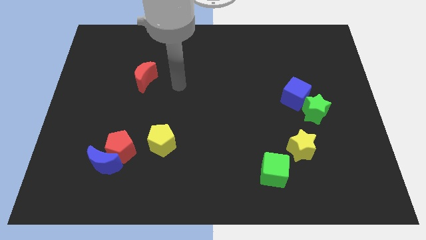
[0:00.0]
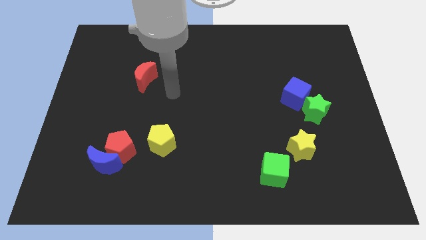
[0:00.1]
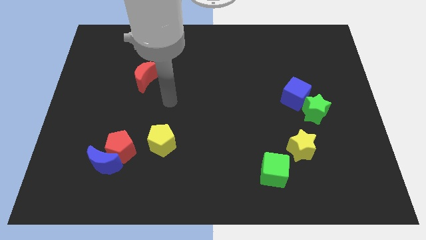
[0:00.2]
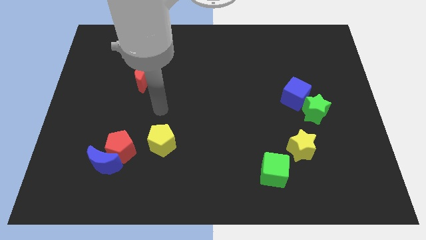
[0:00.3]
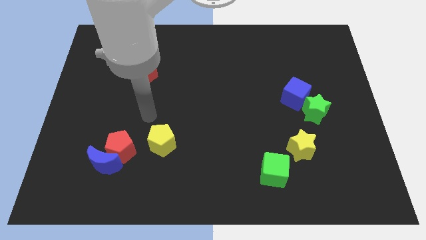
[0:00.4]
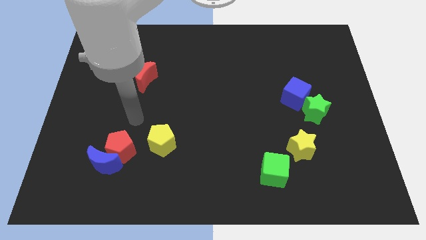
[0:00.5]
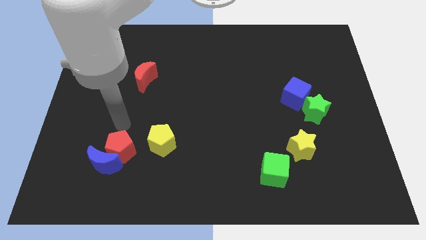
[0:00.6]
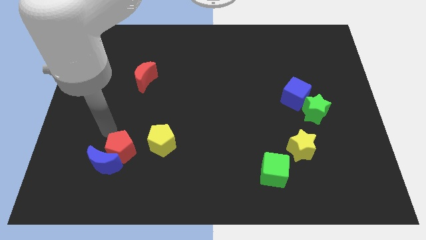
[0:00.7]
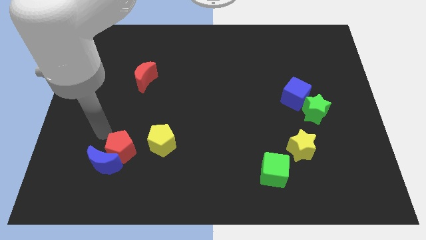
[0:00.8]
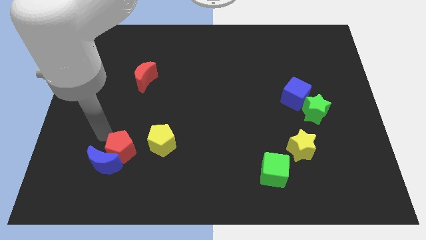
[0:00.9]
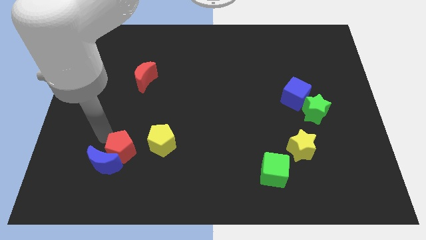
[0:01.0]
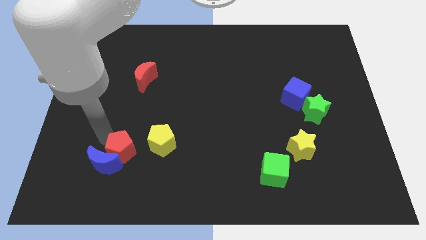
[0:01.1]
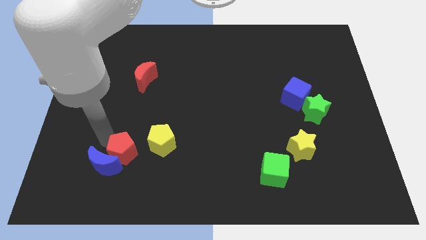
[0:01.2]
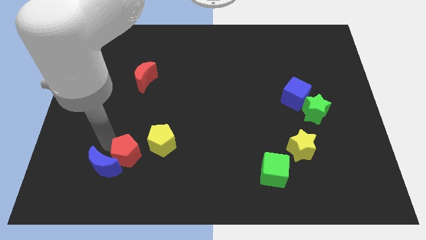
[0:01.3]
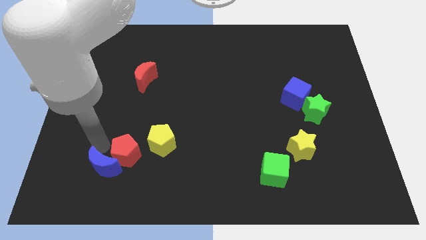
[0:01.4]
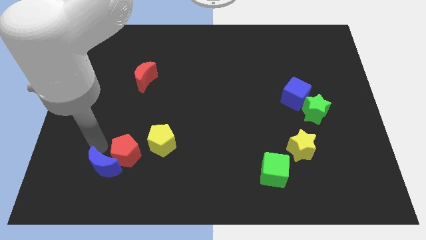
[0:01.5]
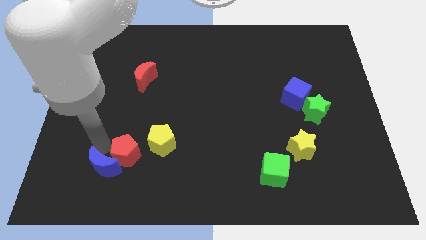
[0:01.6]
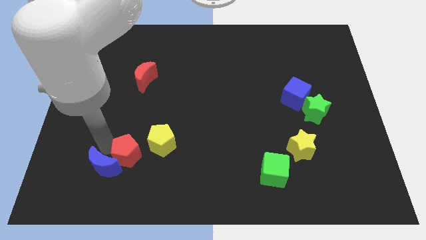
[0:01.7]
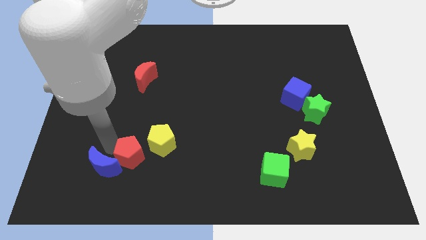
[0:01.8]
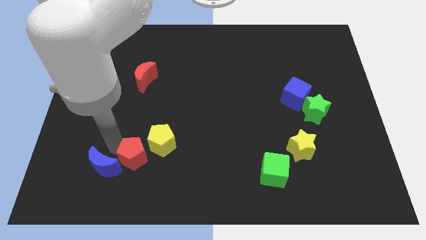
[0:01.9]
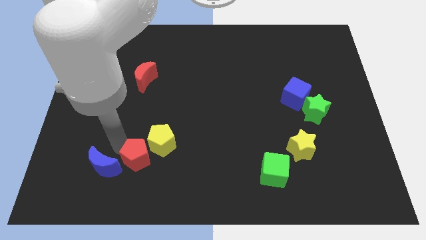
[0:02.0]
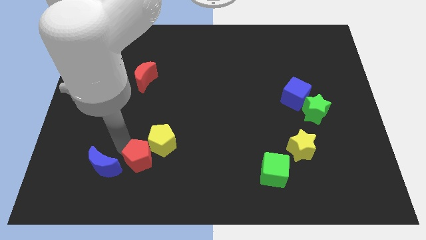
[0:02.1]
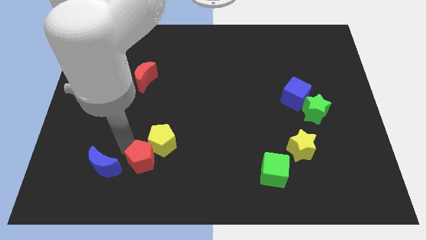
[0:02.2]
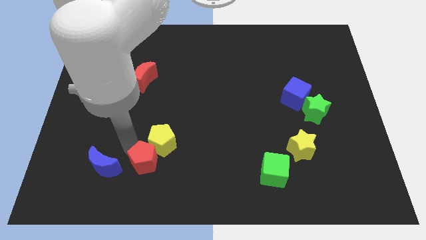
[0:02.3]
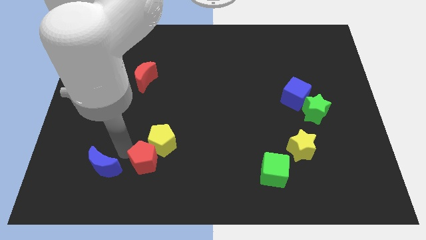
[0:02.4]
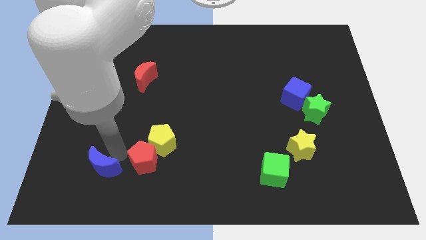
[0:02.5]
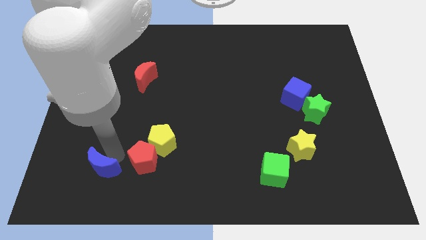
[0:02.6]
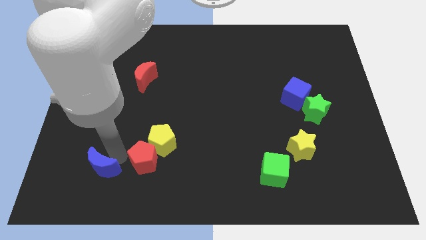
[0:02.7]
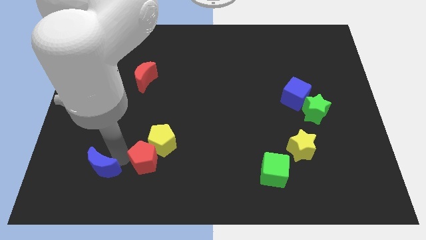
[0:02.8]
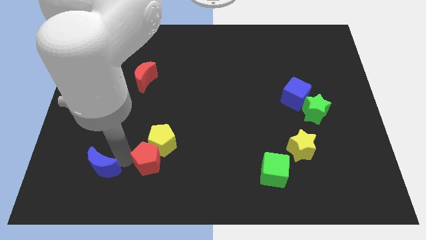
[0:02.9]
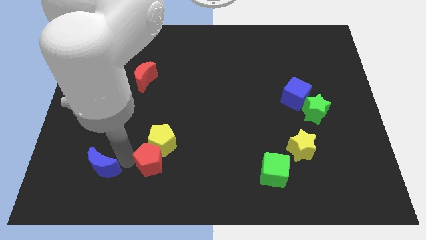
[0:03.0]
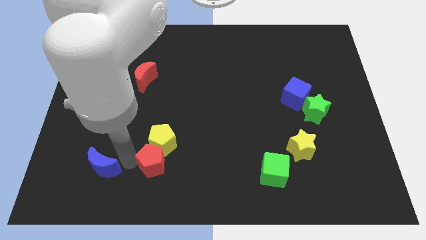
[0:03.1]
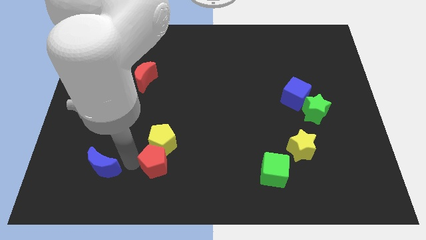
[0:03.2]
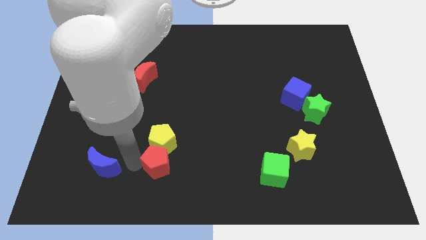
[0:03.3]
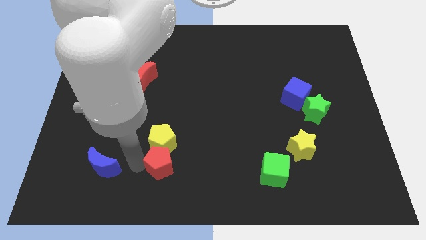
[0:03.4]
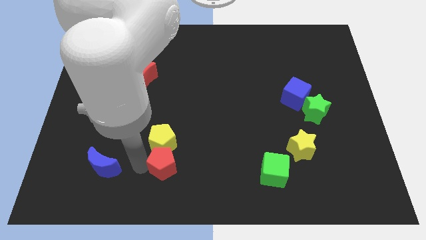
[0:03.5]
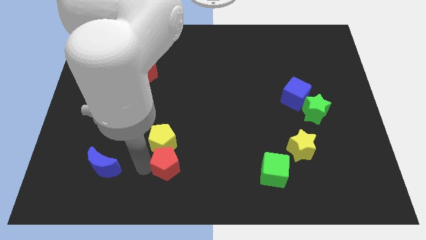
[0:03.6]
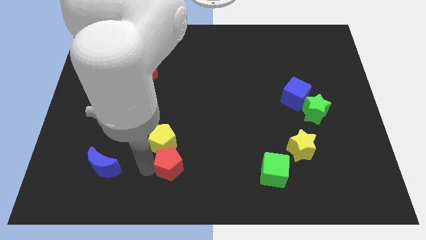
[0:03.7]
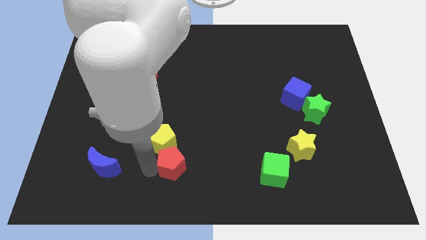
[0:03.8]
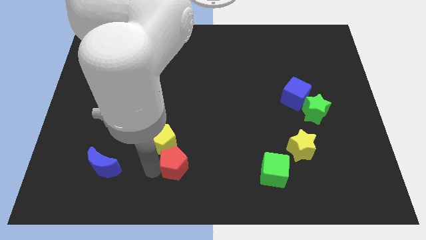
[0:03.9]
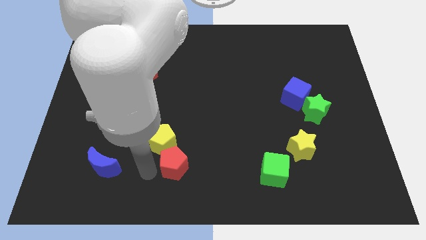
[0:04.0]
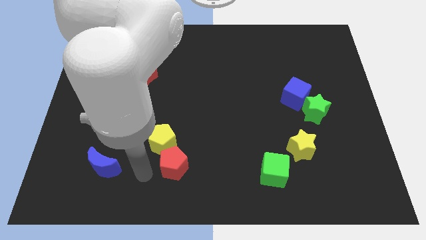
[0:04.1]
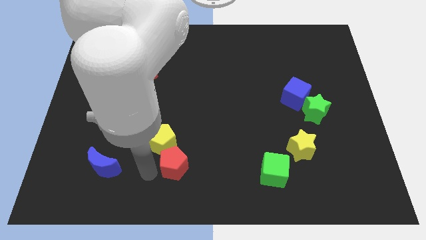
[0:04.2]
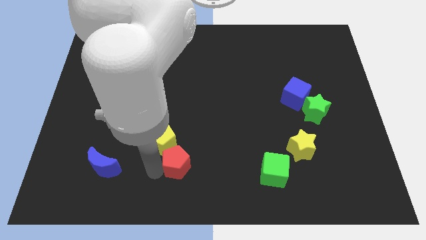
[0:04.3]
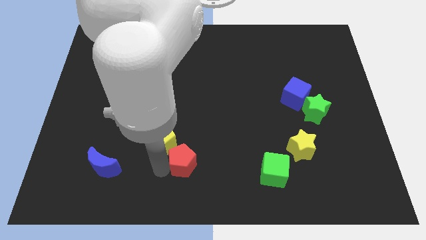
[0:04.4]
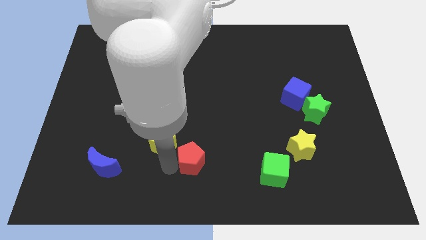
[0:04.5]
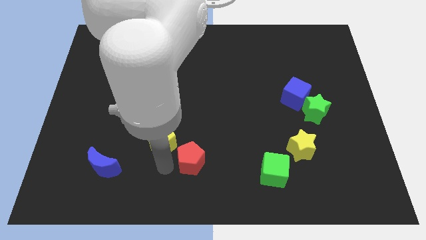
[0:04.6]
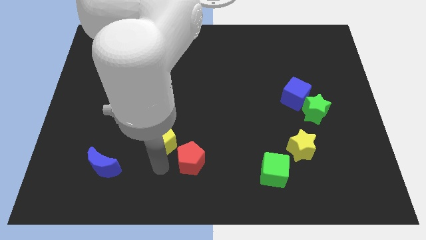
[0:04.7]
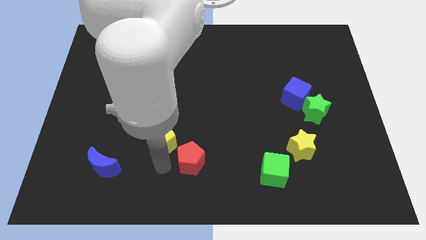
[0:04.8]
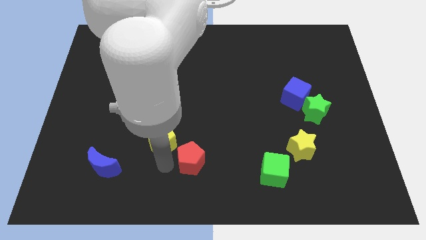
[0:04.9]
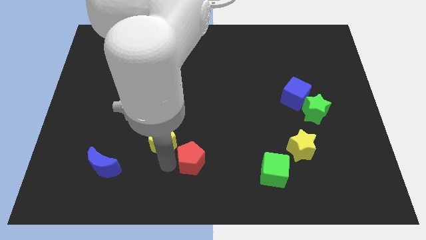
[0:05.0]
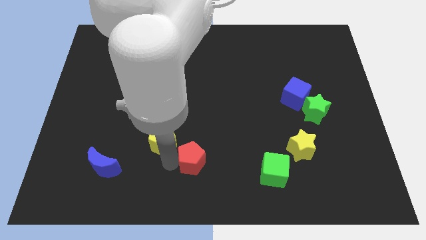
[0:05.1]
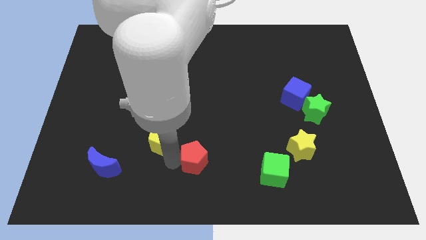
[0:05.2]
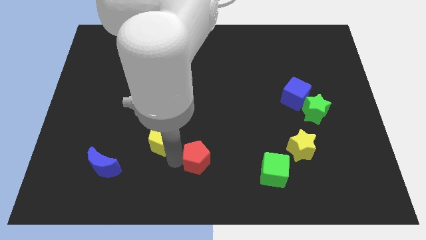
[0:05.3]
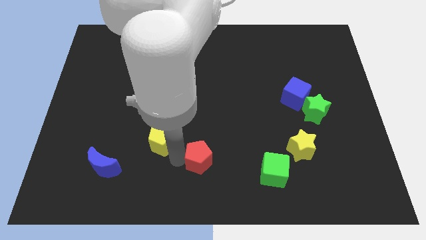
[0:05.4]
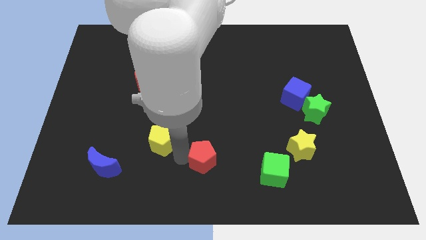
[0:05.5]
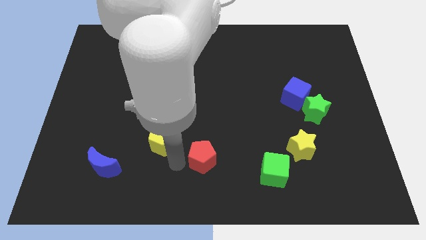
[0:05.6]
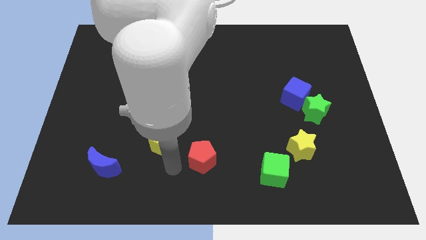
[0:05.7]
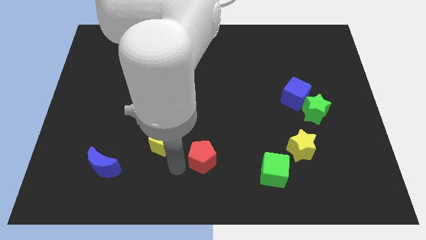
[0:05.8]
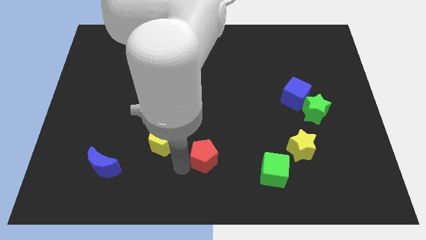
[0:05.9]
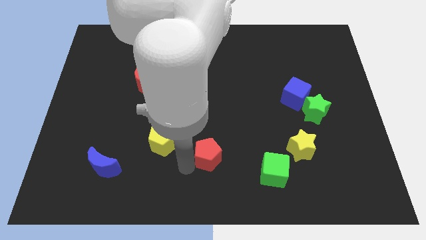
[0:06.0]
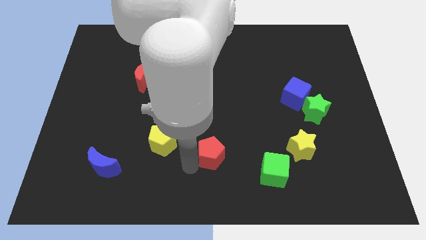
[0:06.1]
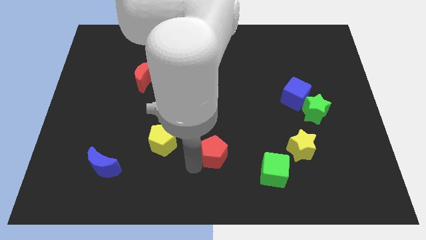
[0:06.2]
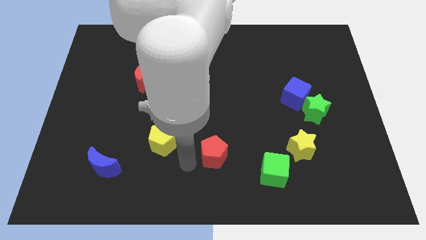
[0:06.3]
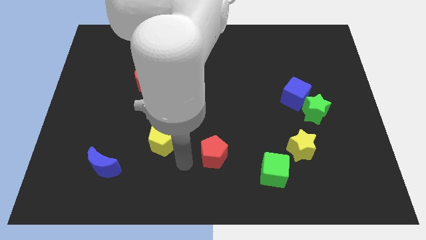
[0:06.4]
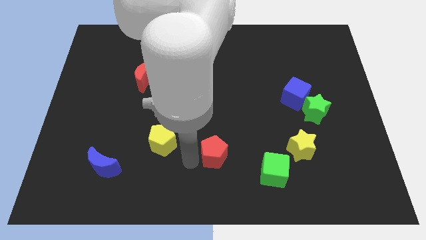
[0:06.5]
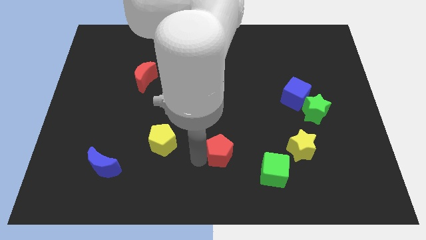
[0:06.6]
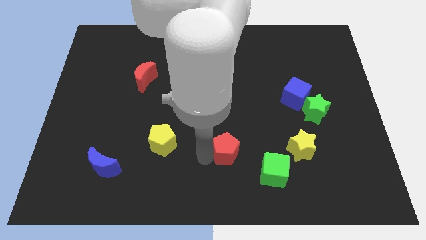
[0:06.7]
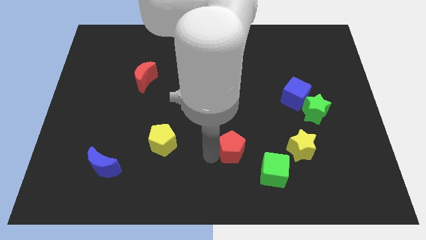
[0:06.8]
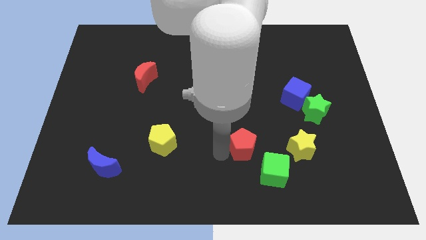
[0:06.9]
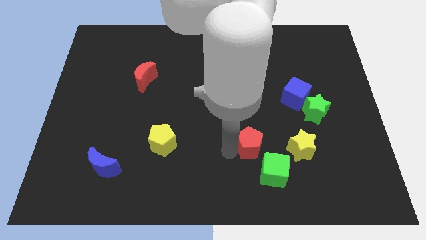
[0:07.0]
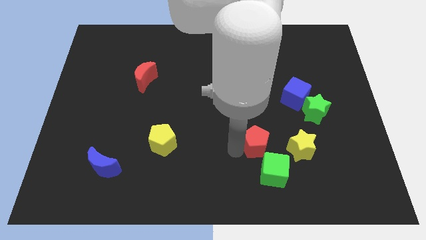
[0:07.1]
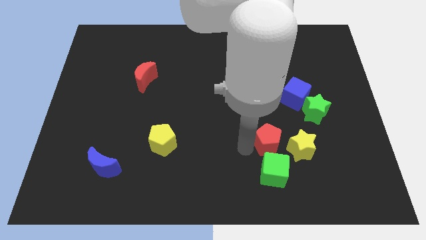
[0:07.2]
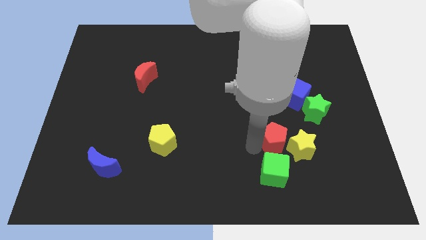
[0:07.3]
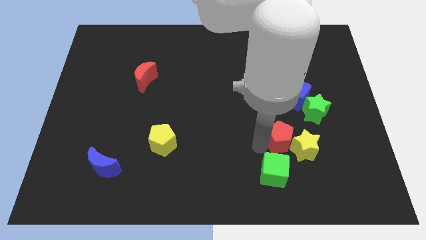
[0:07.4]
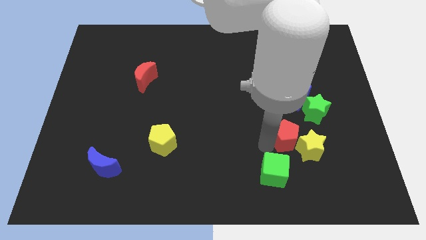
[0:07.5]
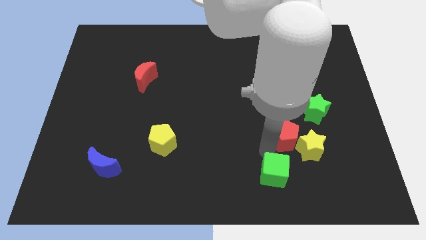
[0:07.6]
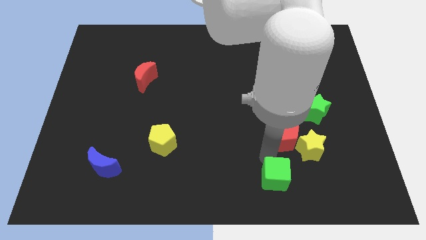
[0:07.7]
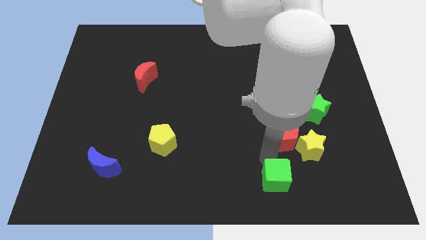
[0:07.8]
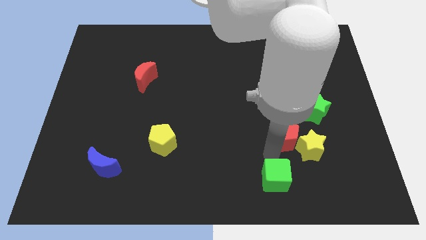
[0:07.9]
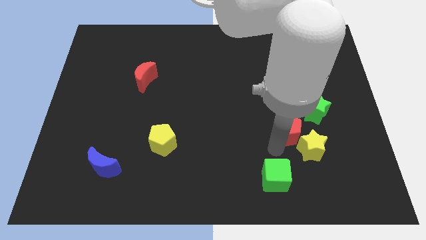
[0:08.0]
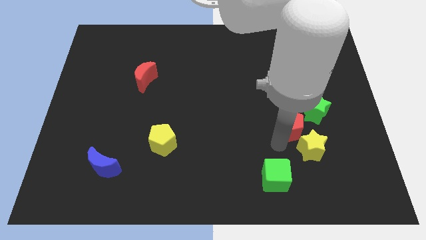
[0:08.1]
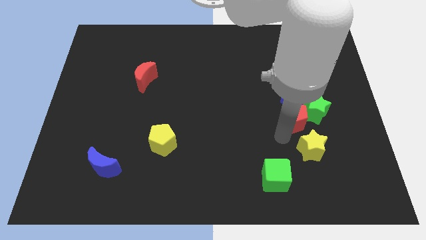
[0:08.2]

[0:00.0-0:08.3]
slide the red pentagon close to the green star
